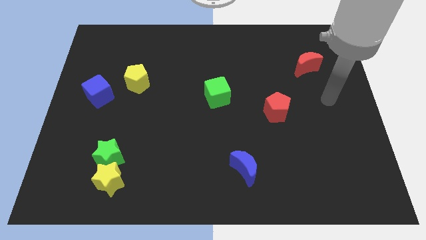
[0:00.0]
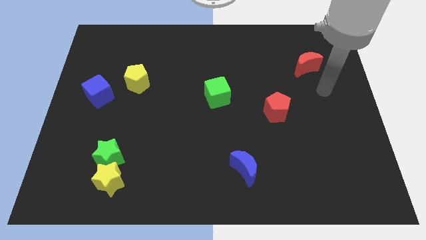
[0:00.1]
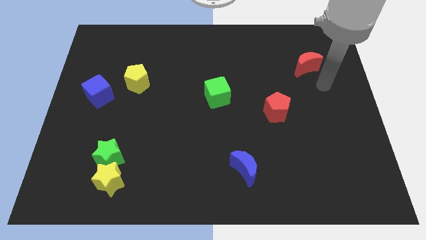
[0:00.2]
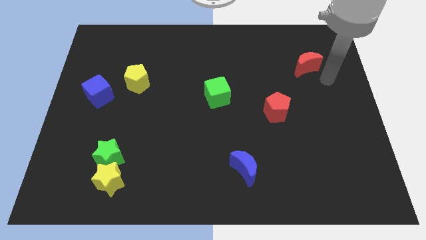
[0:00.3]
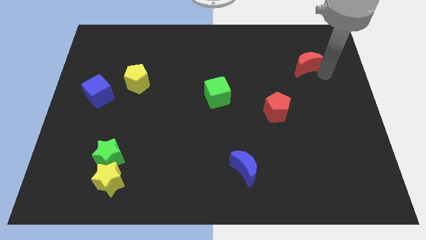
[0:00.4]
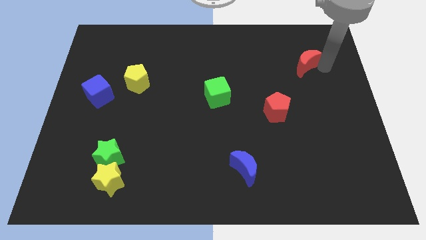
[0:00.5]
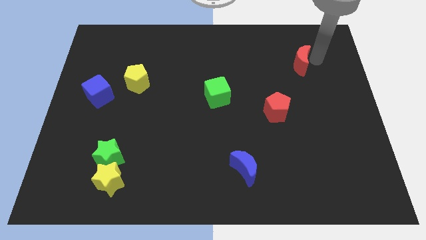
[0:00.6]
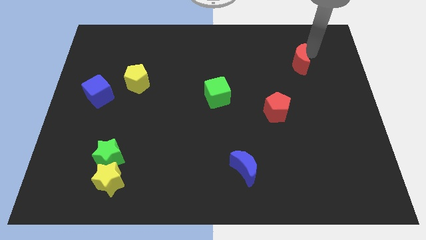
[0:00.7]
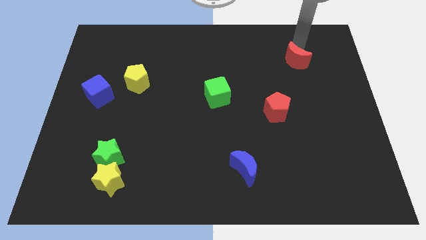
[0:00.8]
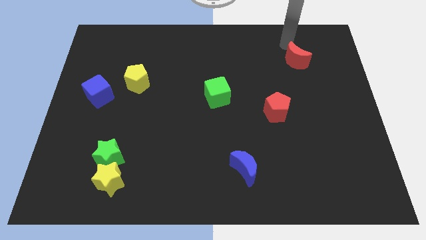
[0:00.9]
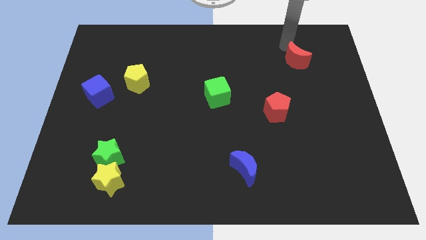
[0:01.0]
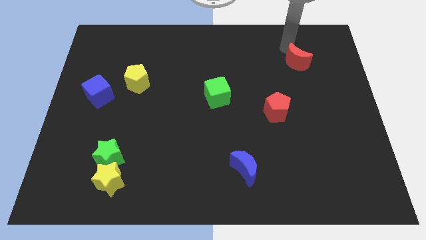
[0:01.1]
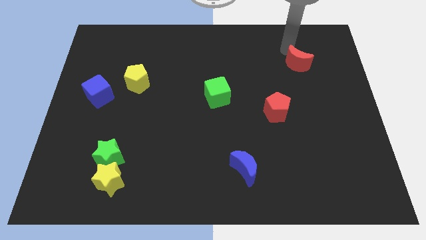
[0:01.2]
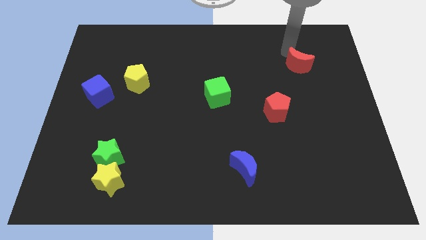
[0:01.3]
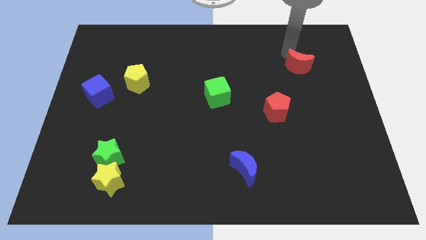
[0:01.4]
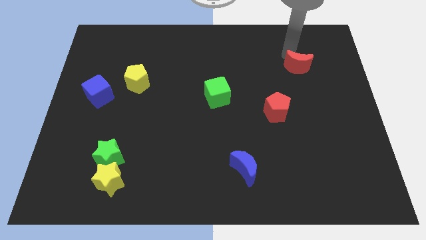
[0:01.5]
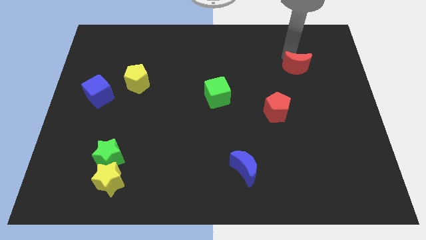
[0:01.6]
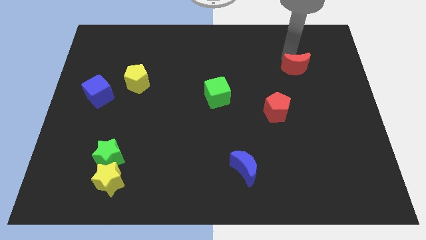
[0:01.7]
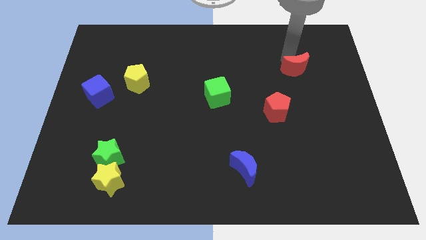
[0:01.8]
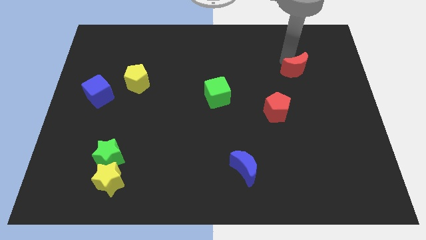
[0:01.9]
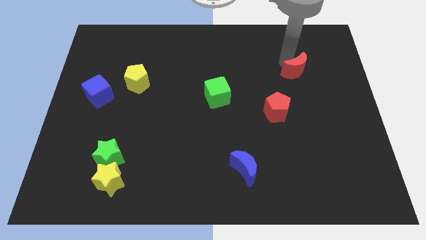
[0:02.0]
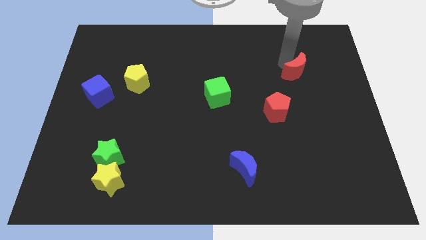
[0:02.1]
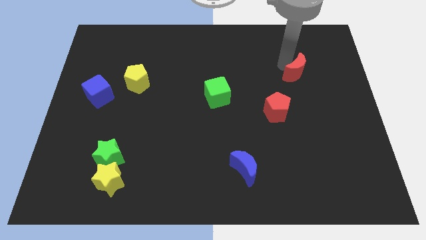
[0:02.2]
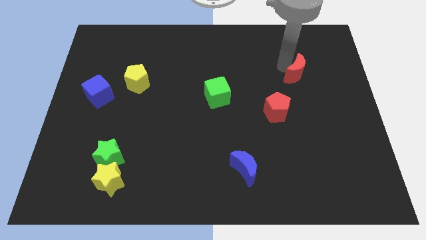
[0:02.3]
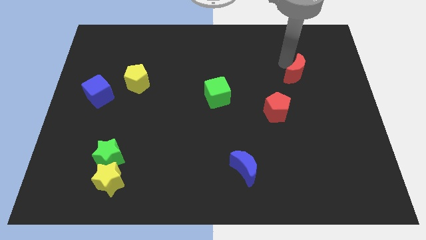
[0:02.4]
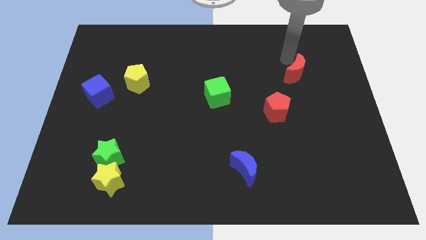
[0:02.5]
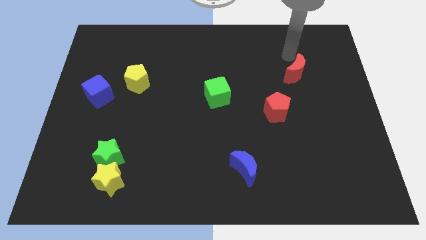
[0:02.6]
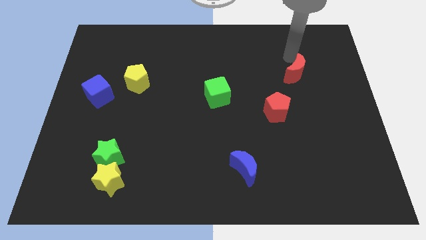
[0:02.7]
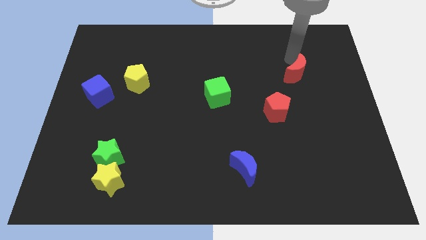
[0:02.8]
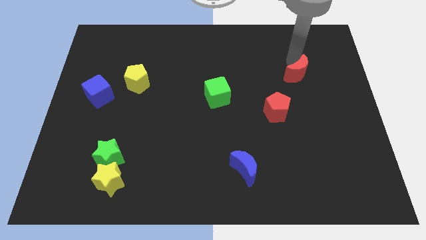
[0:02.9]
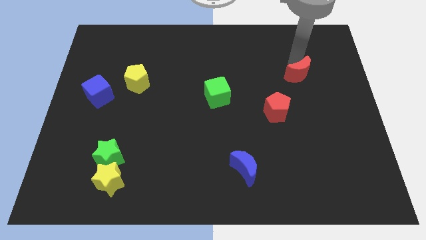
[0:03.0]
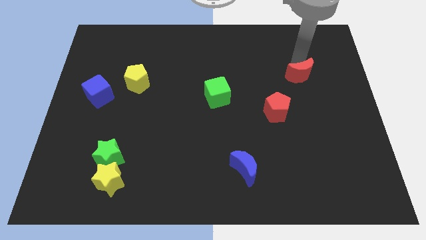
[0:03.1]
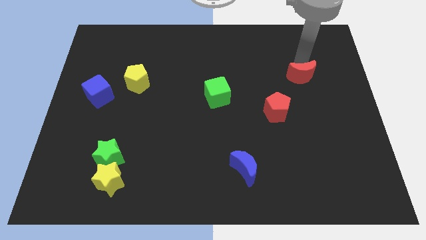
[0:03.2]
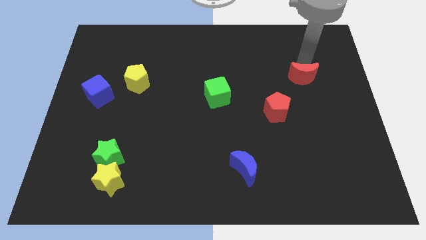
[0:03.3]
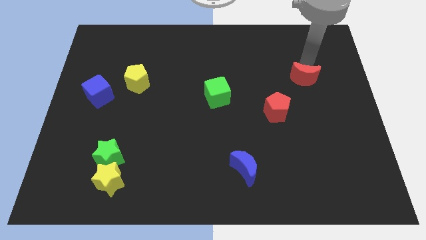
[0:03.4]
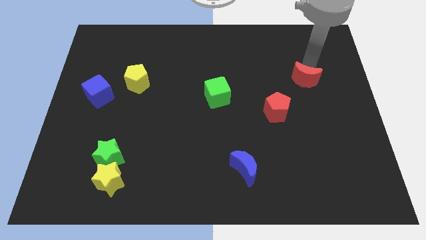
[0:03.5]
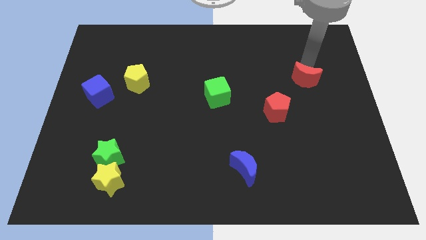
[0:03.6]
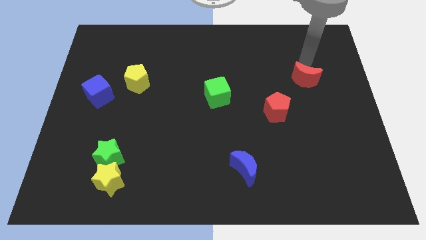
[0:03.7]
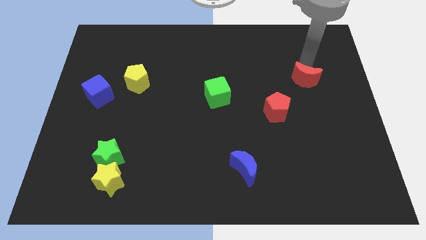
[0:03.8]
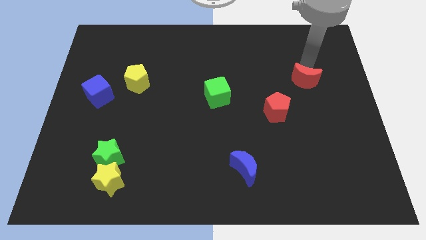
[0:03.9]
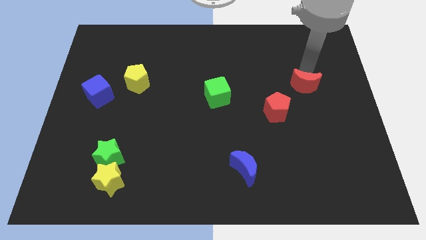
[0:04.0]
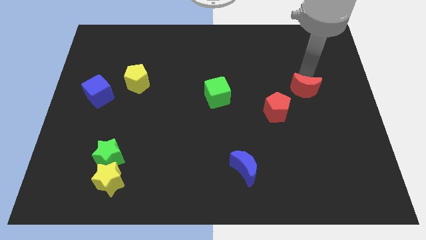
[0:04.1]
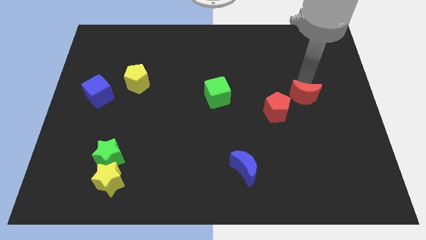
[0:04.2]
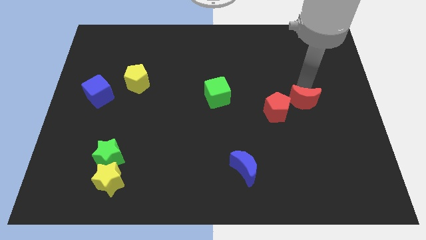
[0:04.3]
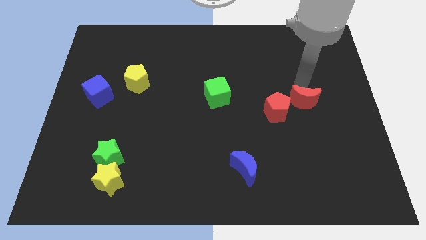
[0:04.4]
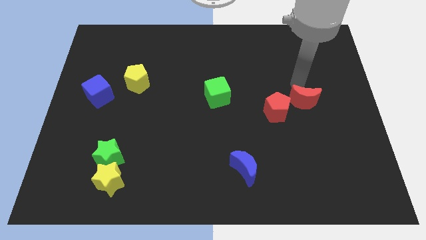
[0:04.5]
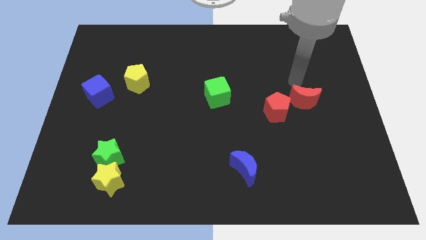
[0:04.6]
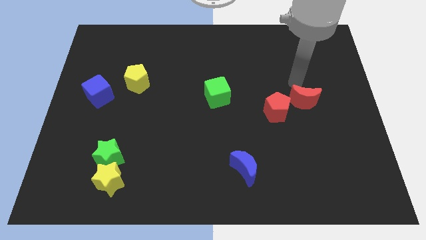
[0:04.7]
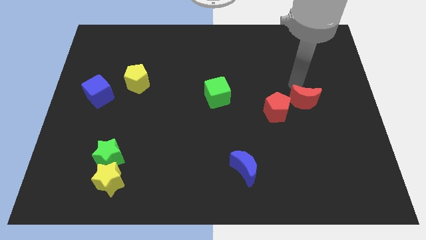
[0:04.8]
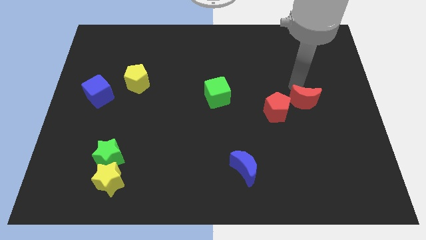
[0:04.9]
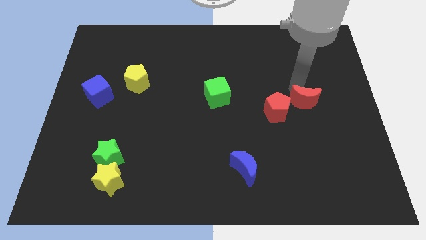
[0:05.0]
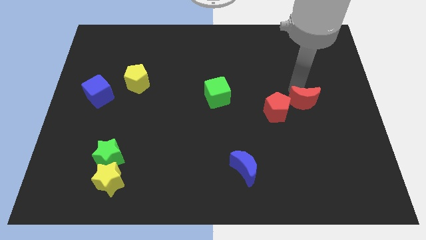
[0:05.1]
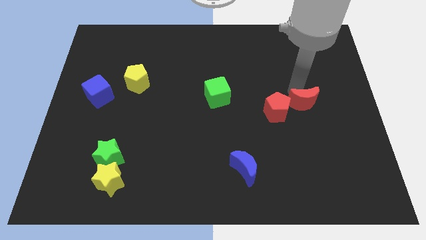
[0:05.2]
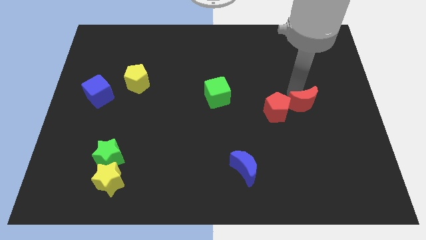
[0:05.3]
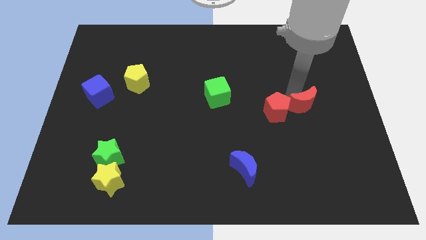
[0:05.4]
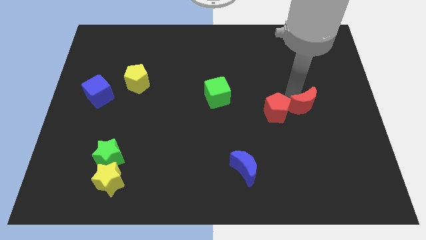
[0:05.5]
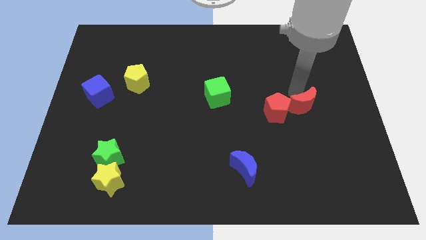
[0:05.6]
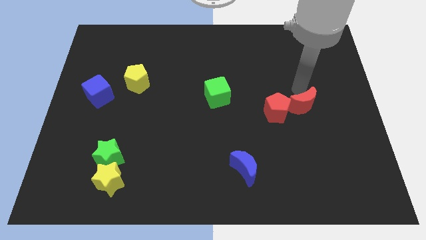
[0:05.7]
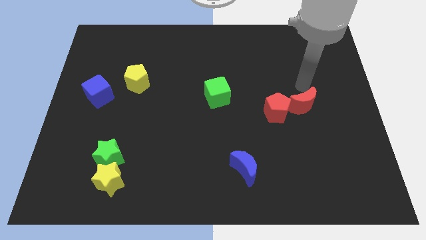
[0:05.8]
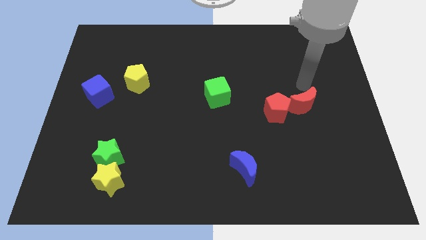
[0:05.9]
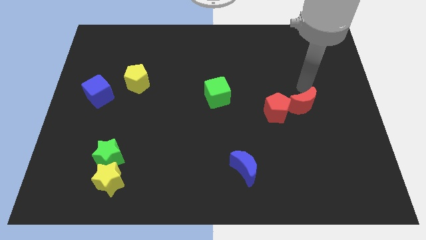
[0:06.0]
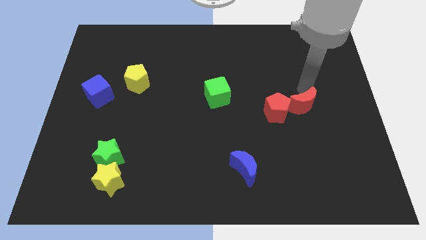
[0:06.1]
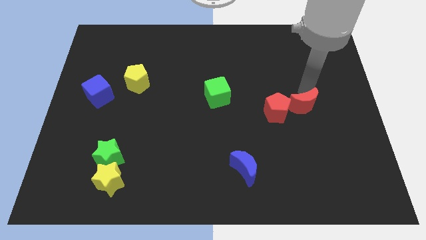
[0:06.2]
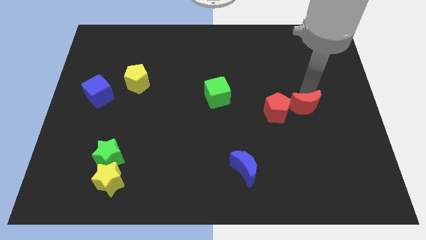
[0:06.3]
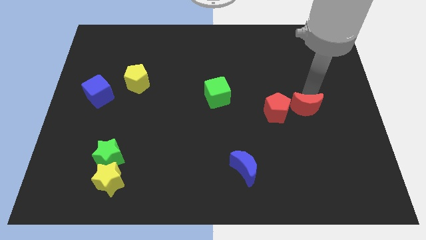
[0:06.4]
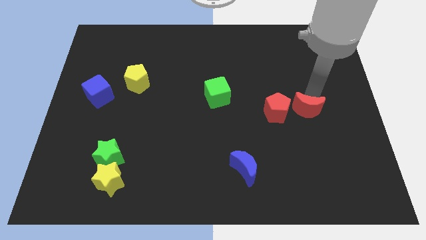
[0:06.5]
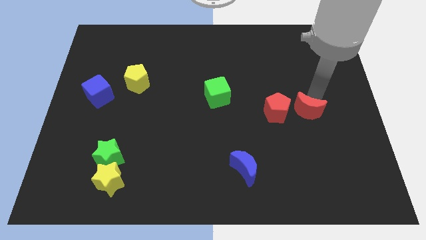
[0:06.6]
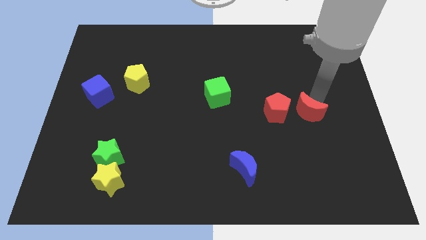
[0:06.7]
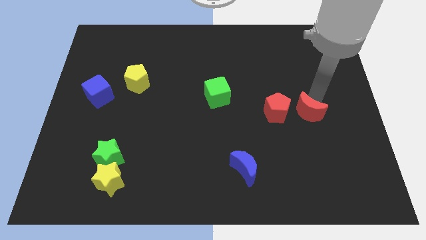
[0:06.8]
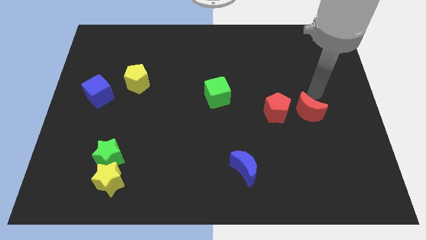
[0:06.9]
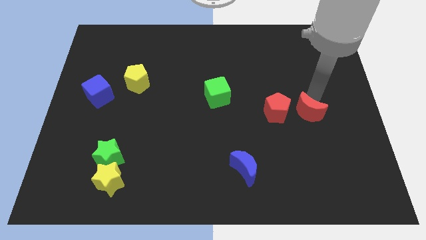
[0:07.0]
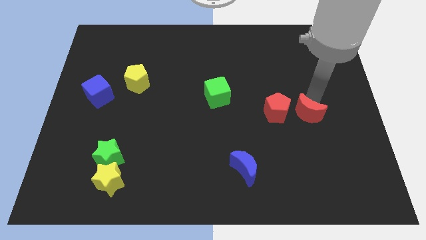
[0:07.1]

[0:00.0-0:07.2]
slide the red moon diagonally down and to the right of the red pentagon

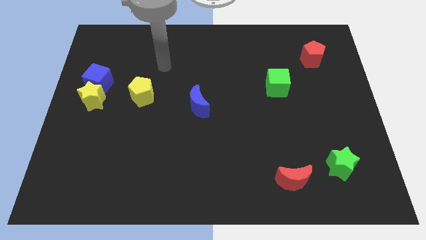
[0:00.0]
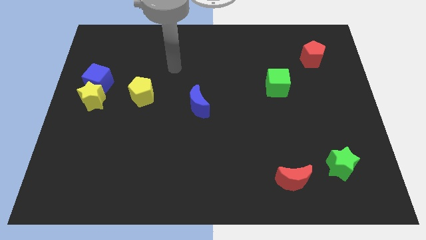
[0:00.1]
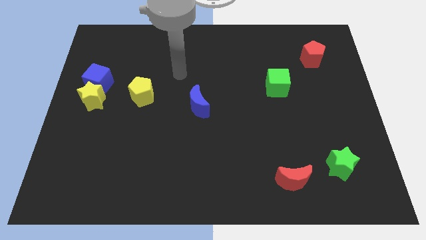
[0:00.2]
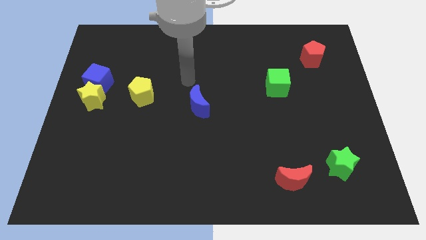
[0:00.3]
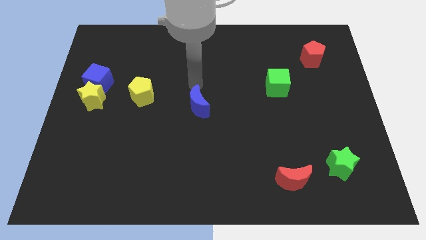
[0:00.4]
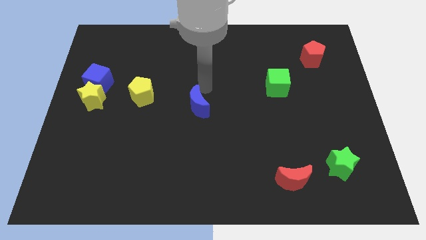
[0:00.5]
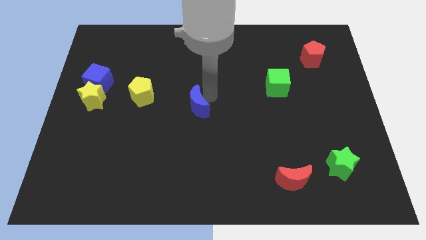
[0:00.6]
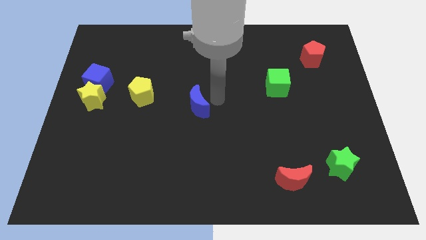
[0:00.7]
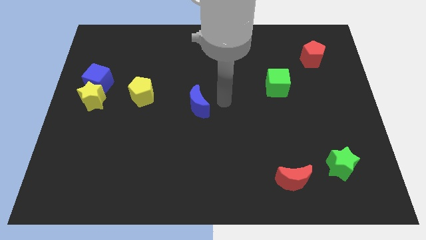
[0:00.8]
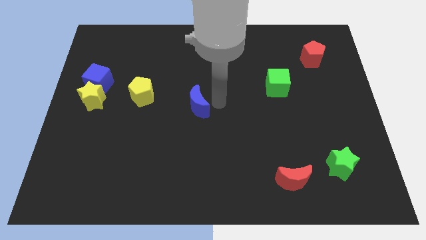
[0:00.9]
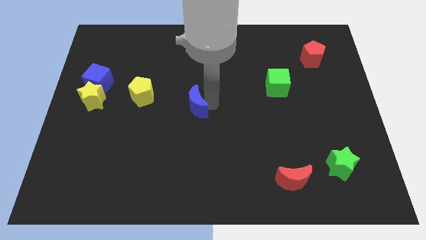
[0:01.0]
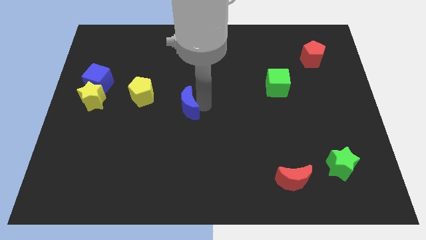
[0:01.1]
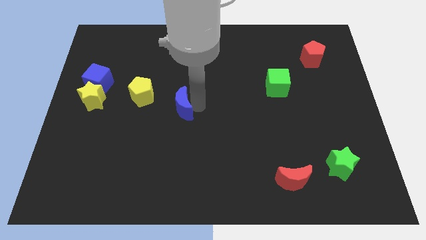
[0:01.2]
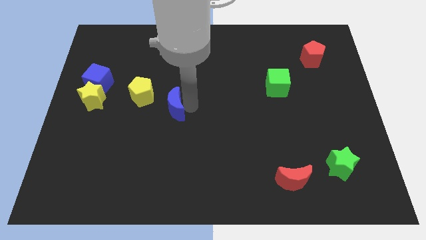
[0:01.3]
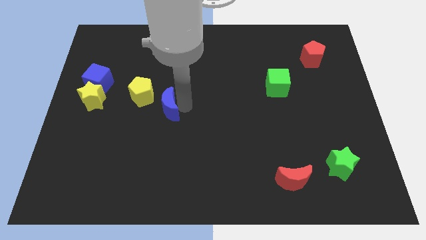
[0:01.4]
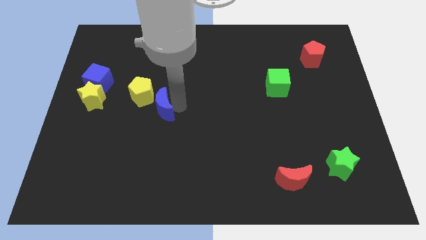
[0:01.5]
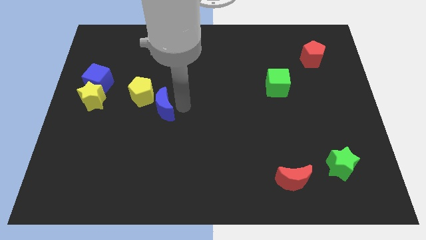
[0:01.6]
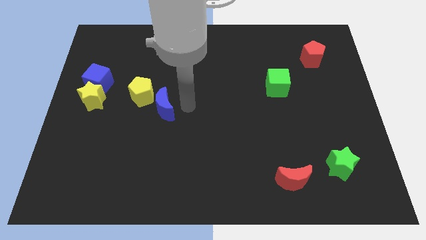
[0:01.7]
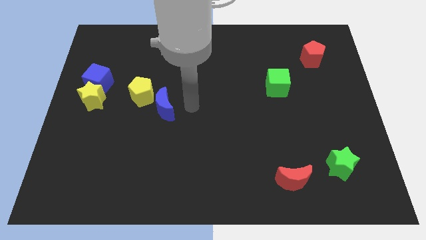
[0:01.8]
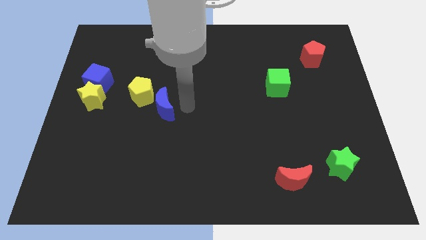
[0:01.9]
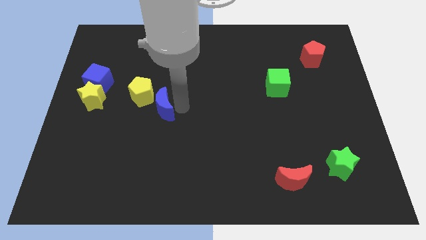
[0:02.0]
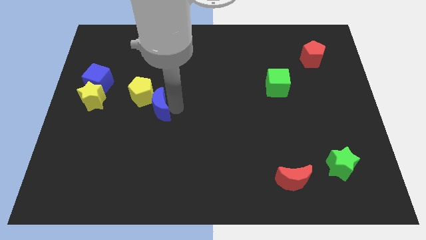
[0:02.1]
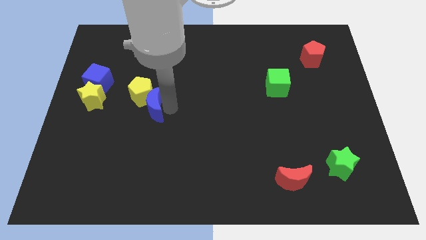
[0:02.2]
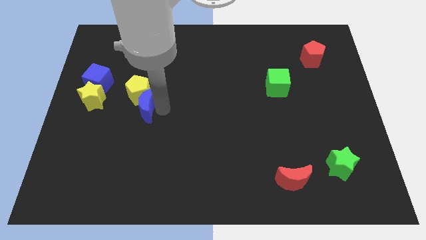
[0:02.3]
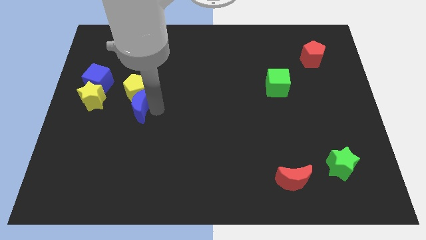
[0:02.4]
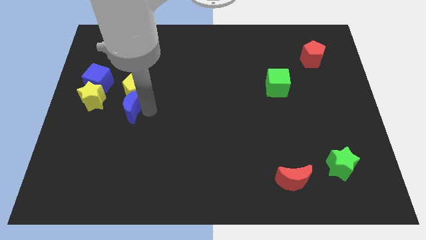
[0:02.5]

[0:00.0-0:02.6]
push the blue moon diagonally down and to the right of the blue cube
